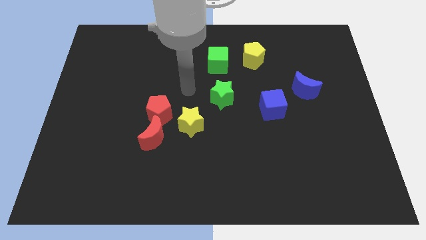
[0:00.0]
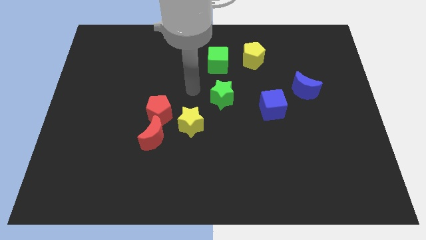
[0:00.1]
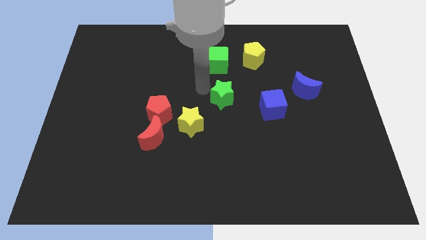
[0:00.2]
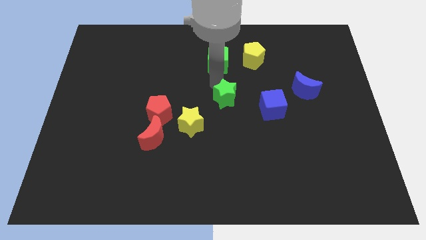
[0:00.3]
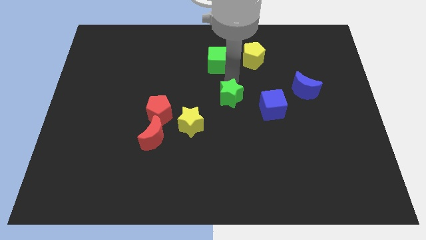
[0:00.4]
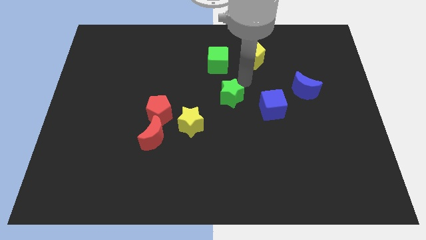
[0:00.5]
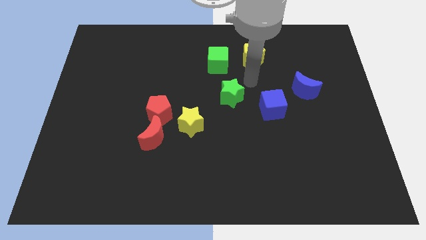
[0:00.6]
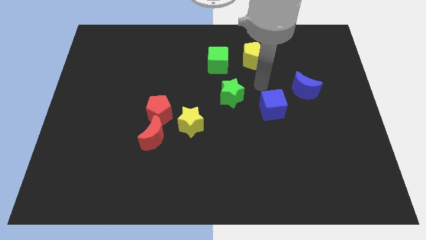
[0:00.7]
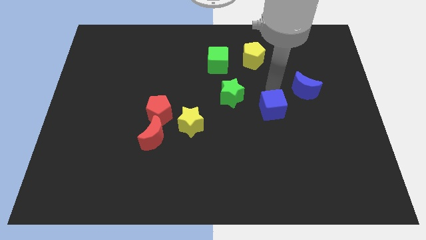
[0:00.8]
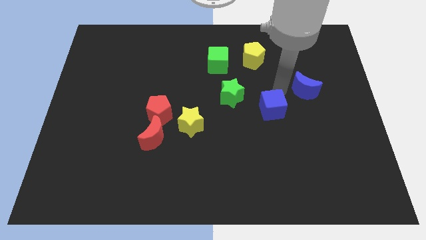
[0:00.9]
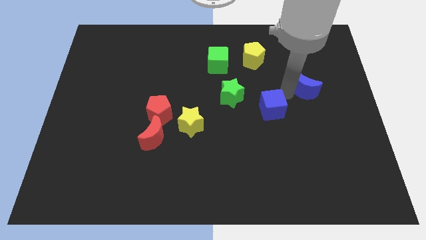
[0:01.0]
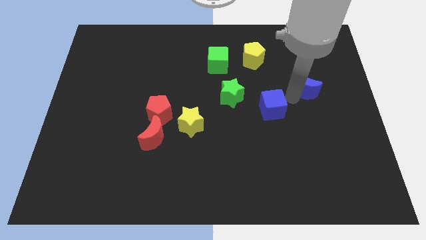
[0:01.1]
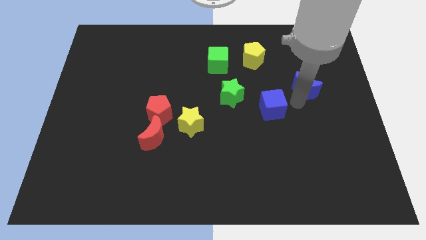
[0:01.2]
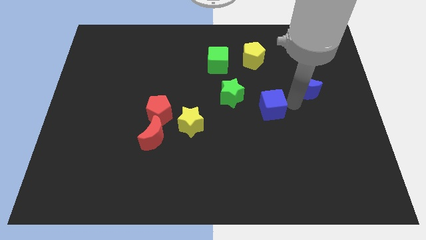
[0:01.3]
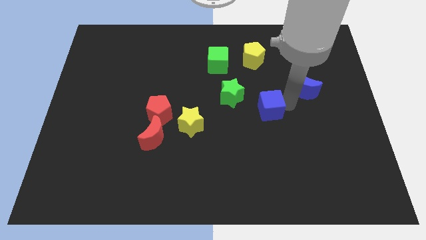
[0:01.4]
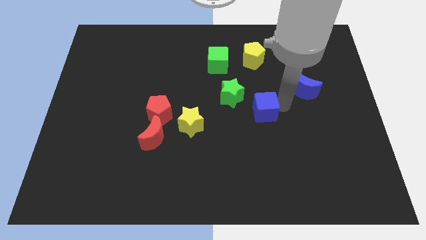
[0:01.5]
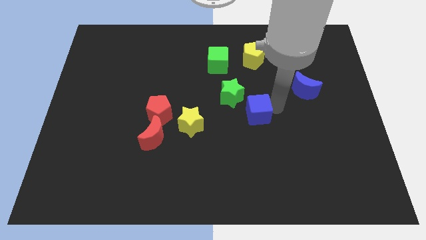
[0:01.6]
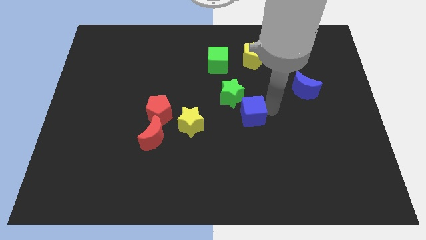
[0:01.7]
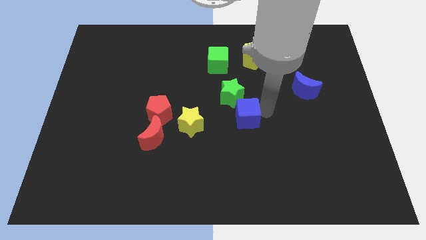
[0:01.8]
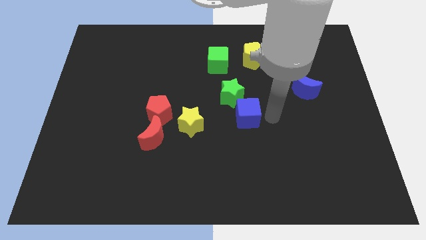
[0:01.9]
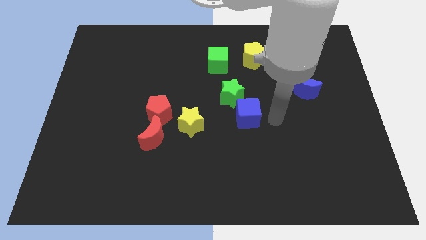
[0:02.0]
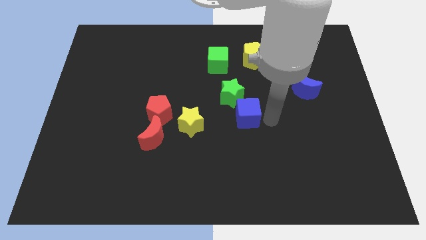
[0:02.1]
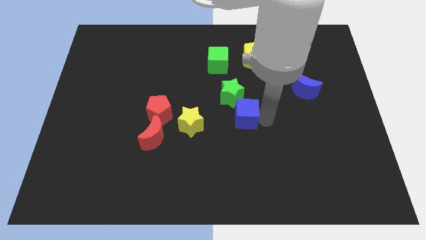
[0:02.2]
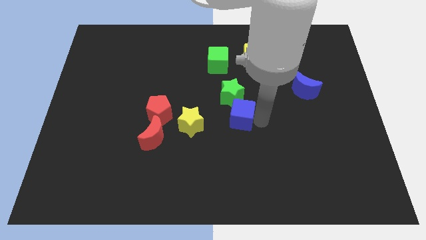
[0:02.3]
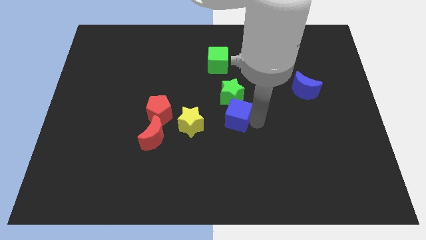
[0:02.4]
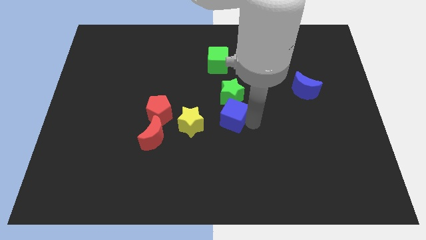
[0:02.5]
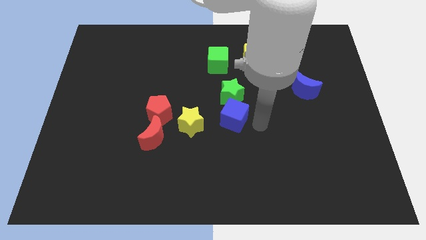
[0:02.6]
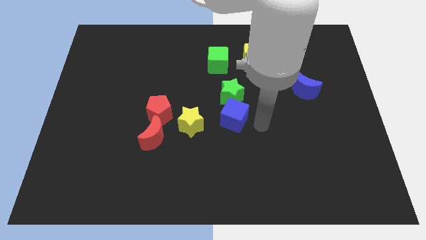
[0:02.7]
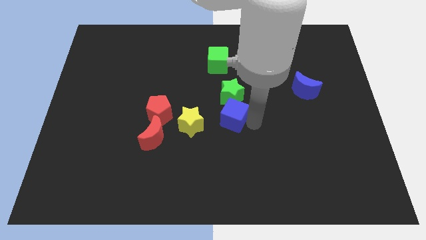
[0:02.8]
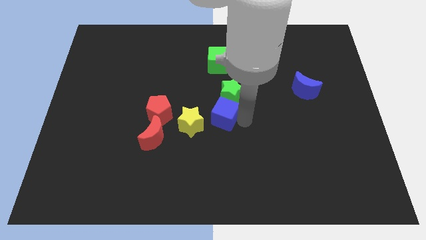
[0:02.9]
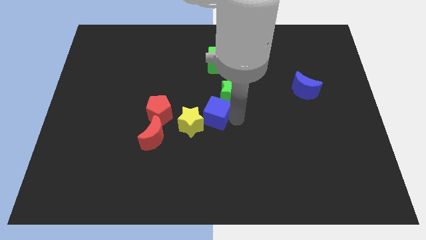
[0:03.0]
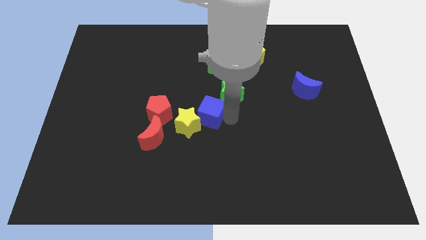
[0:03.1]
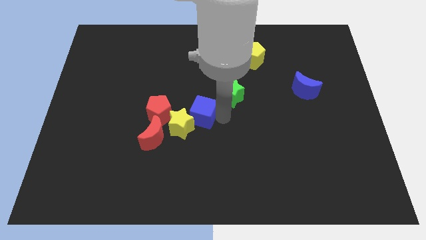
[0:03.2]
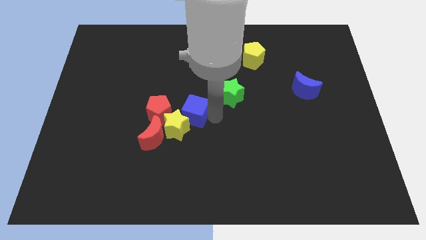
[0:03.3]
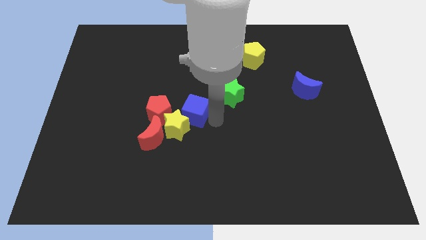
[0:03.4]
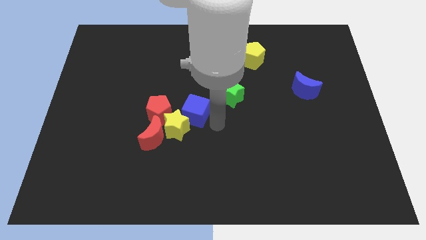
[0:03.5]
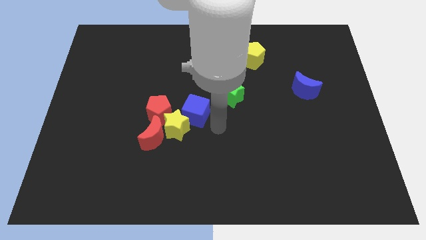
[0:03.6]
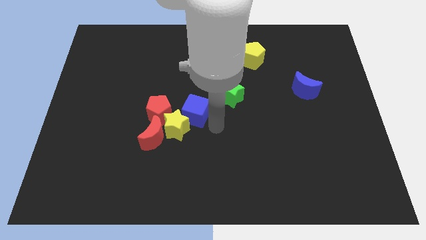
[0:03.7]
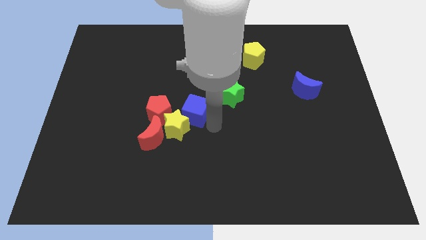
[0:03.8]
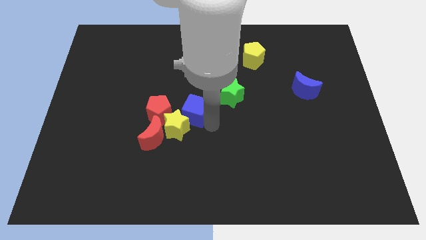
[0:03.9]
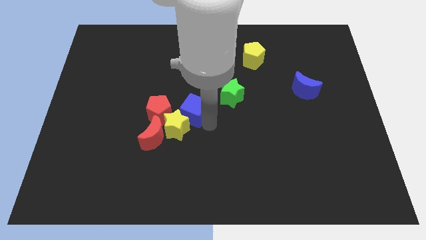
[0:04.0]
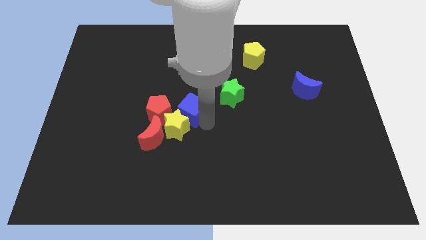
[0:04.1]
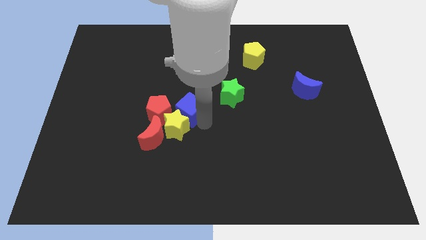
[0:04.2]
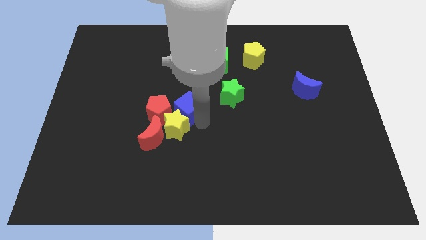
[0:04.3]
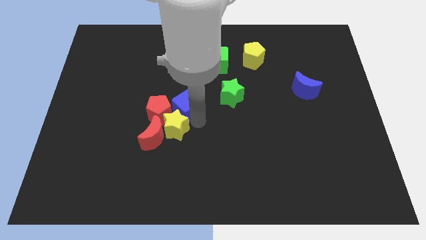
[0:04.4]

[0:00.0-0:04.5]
move the blue cube left

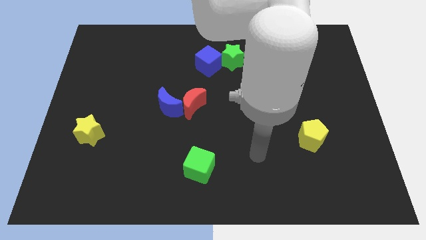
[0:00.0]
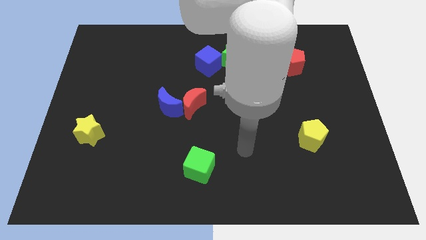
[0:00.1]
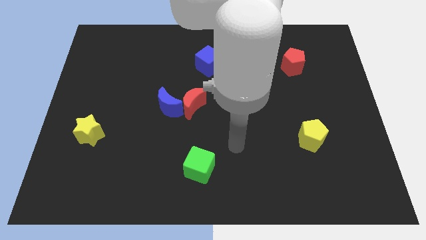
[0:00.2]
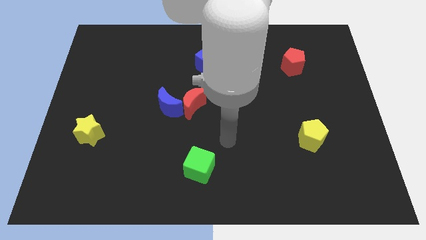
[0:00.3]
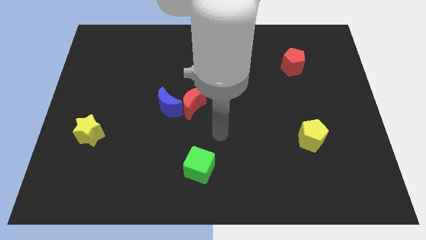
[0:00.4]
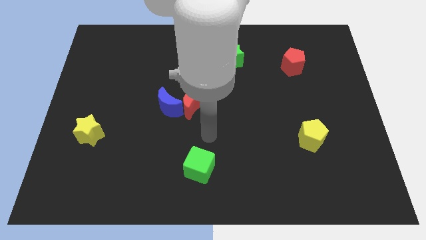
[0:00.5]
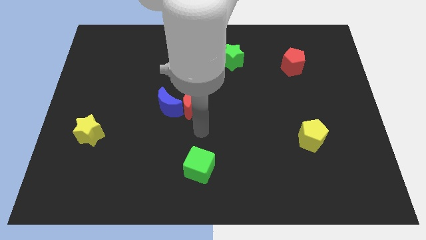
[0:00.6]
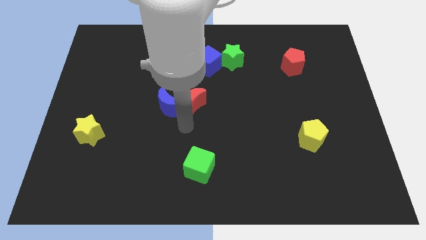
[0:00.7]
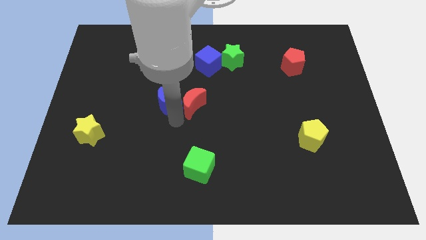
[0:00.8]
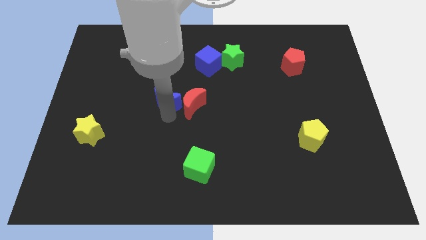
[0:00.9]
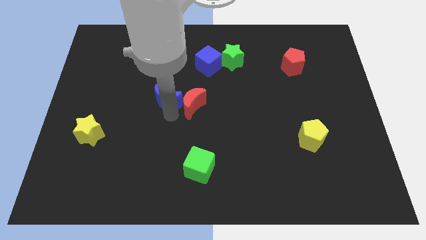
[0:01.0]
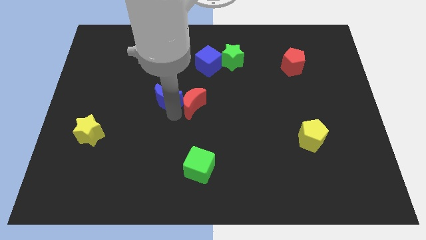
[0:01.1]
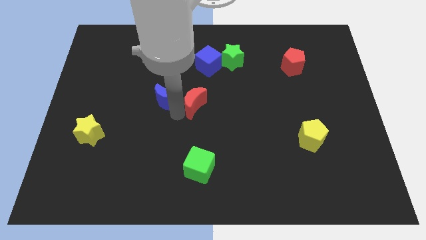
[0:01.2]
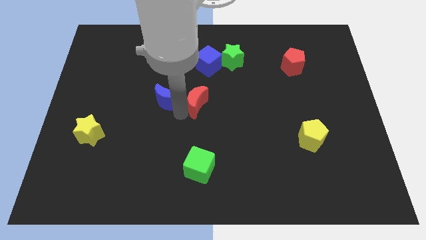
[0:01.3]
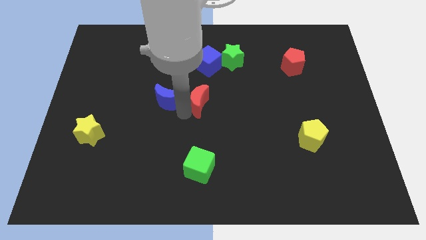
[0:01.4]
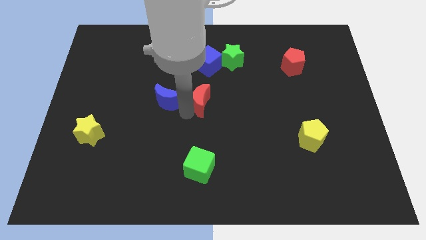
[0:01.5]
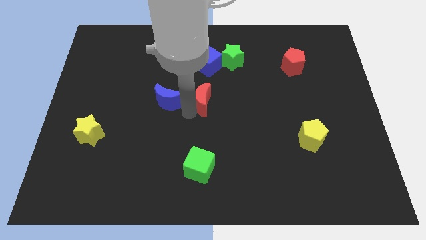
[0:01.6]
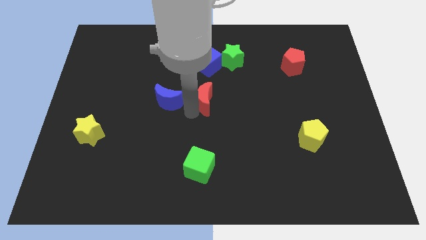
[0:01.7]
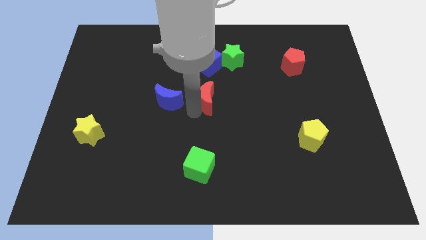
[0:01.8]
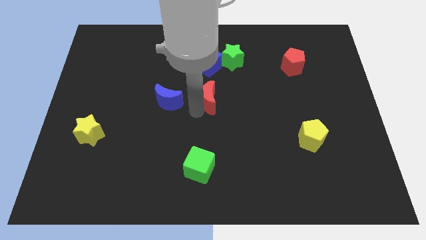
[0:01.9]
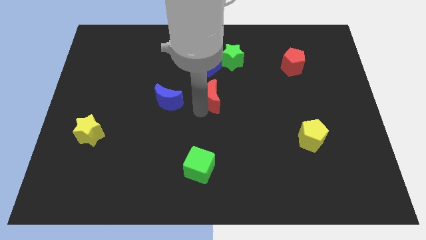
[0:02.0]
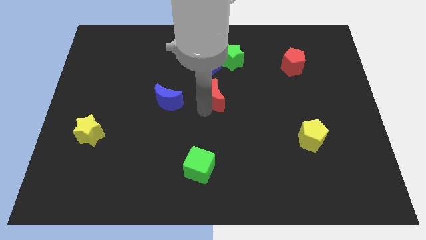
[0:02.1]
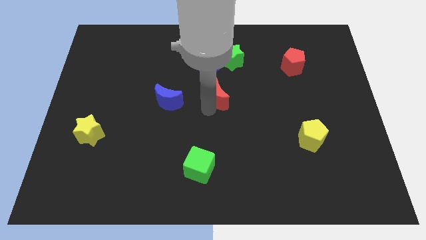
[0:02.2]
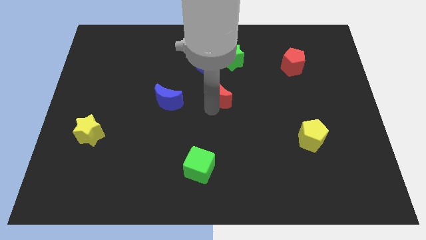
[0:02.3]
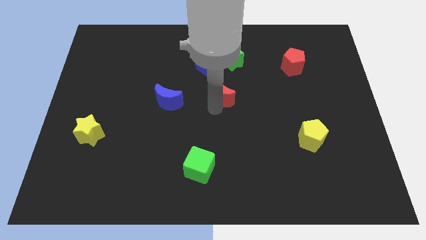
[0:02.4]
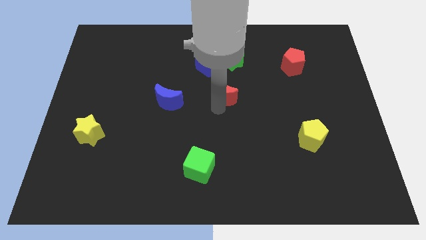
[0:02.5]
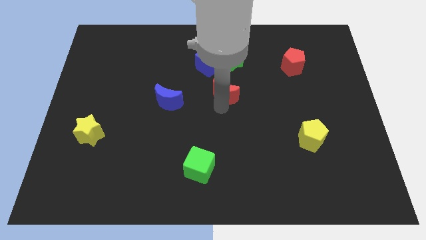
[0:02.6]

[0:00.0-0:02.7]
slightly slide the red moon upwards and then to the right

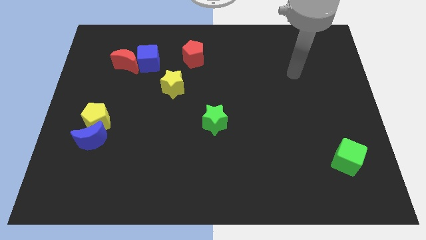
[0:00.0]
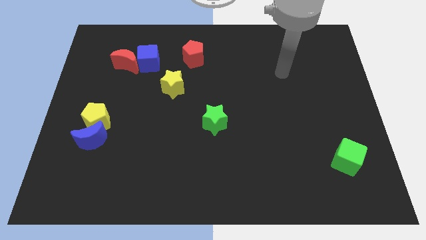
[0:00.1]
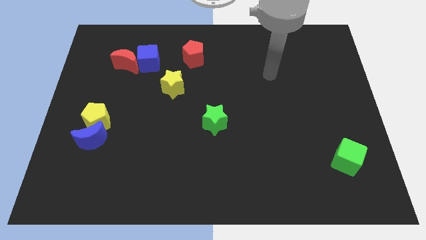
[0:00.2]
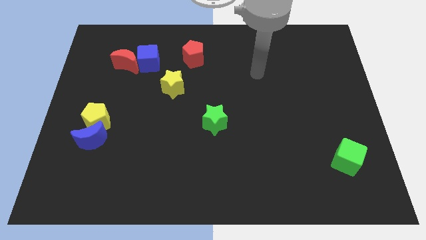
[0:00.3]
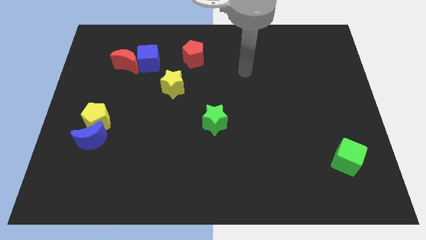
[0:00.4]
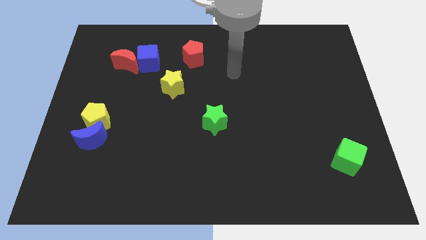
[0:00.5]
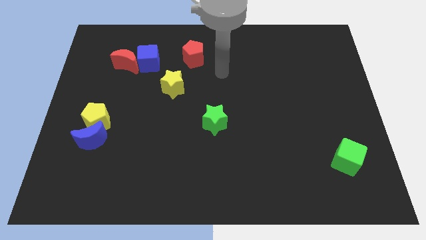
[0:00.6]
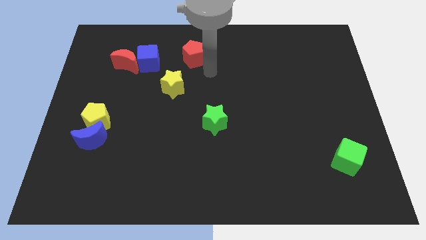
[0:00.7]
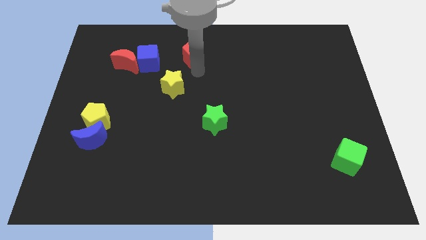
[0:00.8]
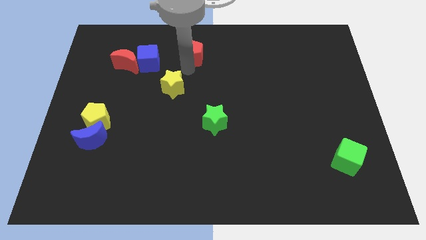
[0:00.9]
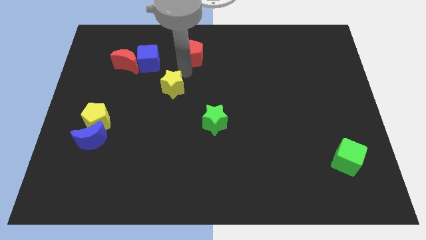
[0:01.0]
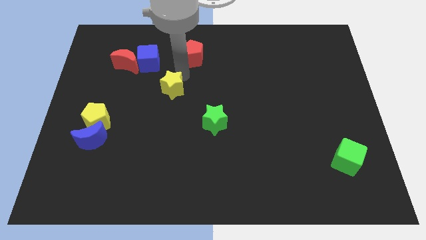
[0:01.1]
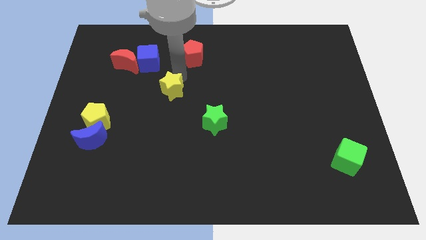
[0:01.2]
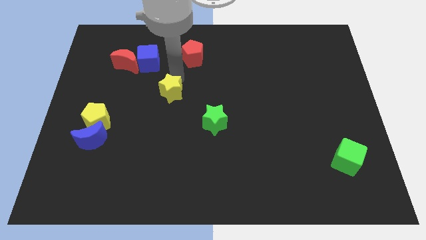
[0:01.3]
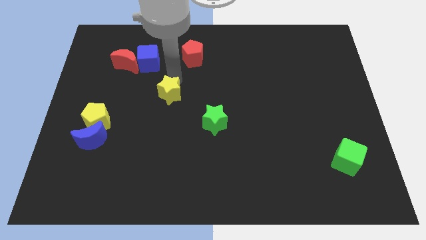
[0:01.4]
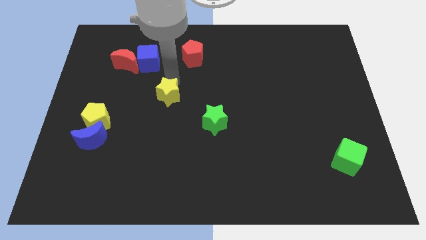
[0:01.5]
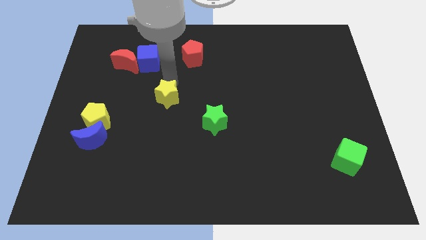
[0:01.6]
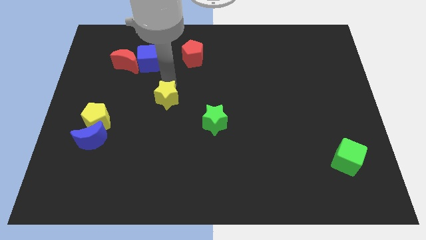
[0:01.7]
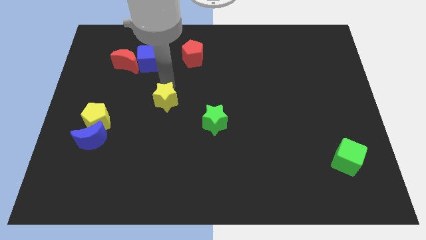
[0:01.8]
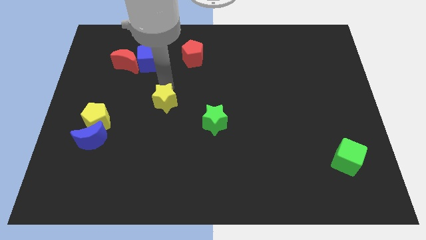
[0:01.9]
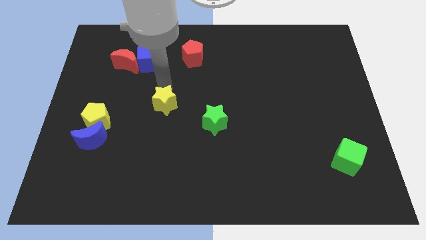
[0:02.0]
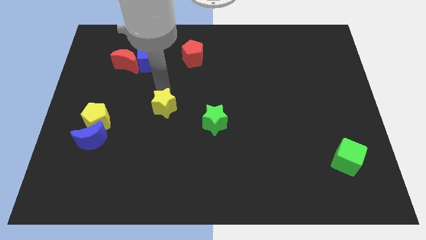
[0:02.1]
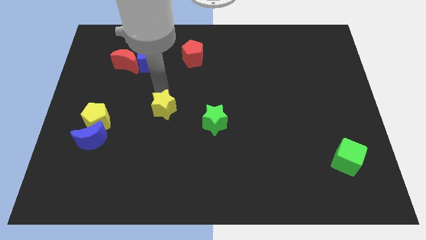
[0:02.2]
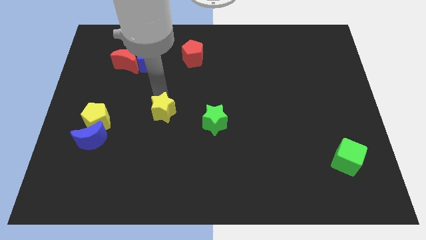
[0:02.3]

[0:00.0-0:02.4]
slide the yellow star slightly down
